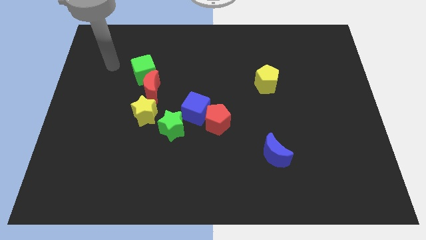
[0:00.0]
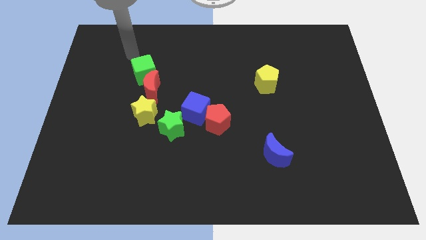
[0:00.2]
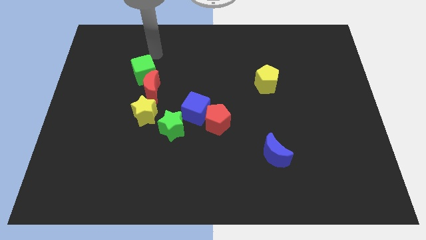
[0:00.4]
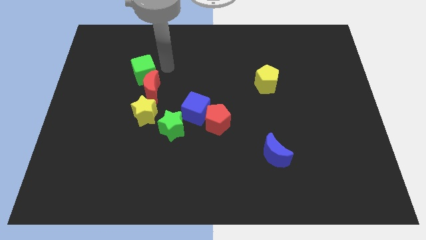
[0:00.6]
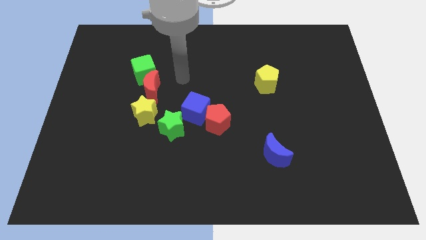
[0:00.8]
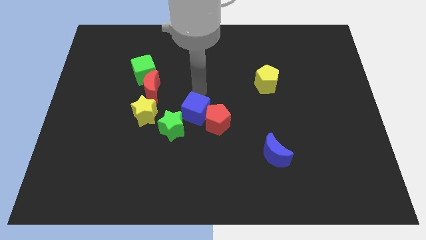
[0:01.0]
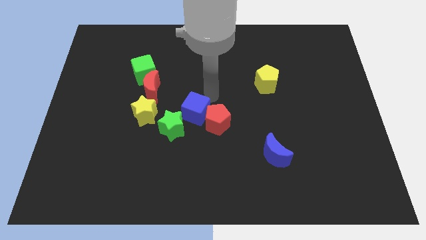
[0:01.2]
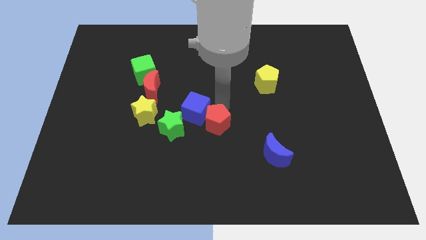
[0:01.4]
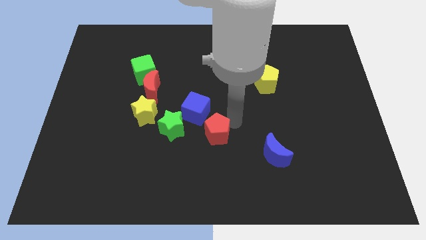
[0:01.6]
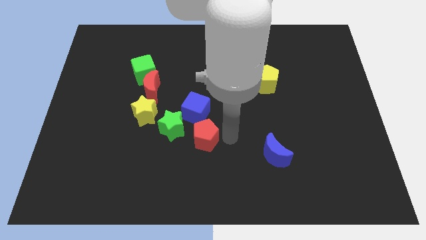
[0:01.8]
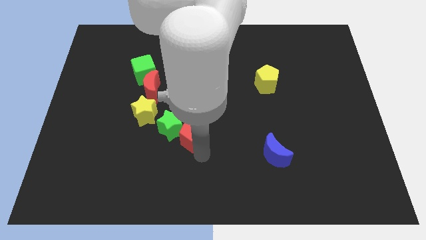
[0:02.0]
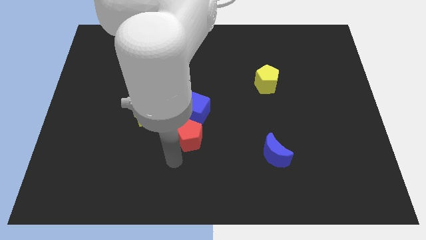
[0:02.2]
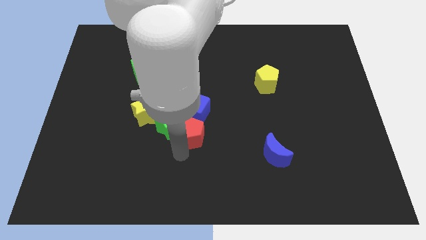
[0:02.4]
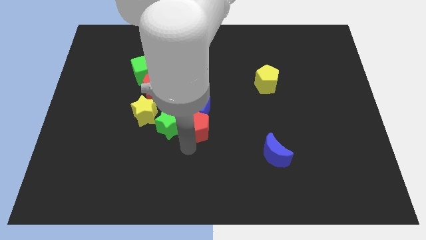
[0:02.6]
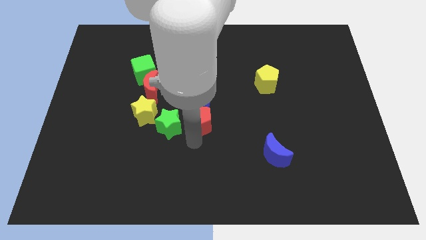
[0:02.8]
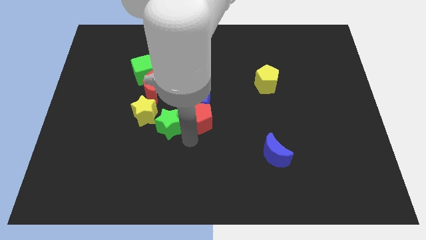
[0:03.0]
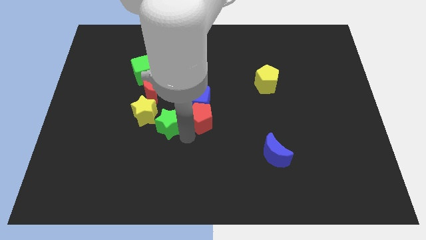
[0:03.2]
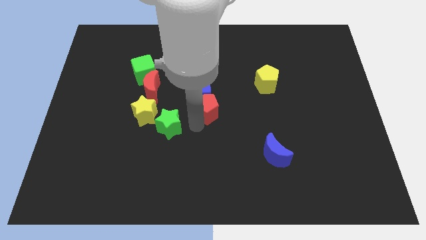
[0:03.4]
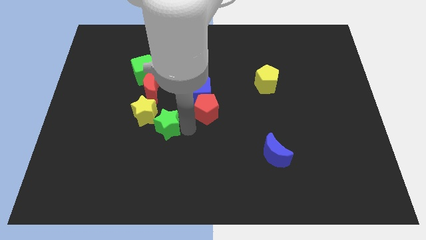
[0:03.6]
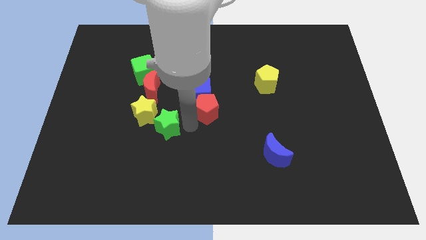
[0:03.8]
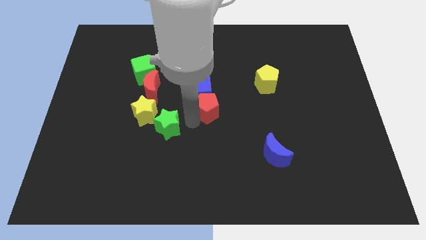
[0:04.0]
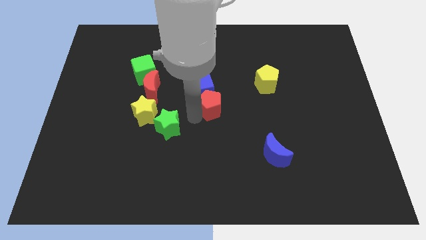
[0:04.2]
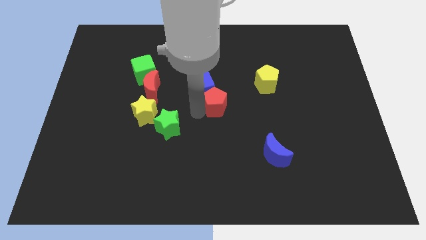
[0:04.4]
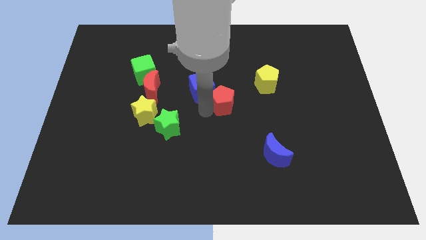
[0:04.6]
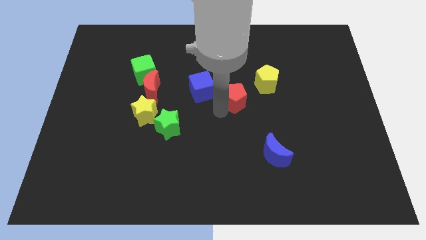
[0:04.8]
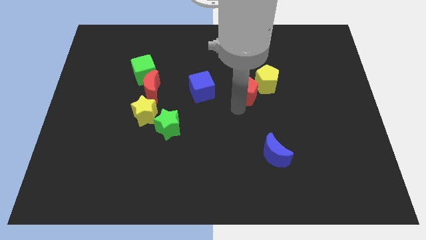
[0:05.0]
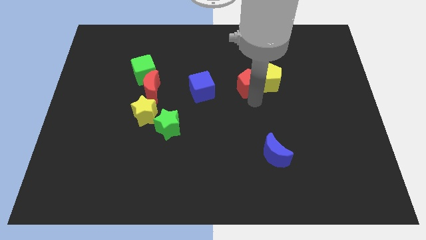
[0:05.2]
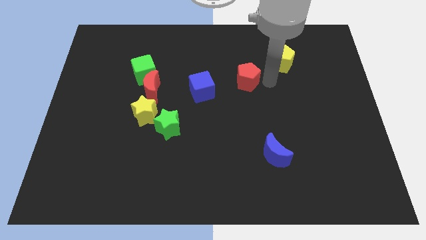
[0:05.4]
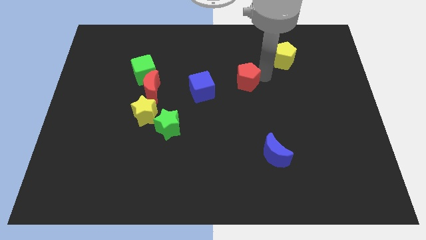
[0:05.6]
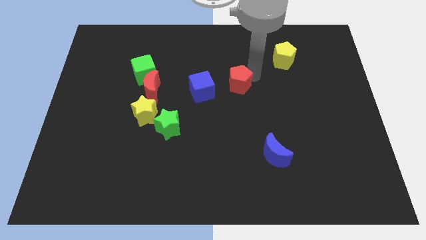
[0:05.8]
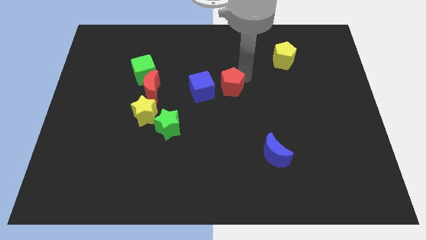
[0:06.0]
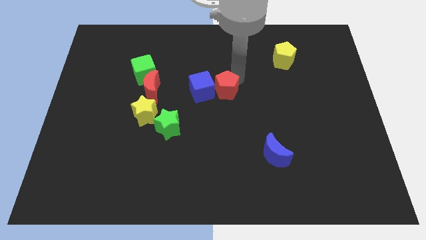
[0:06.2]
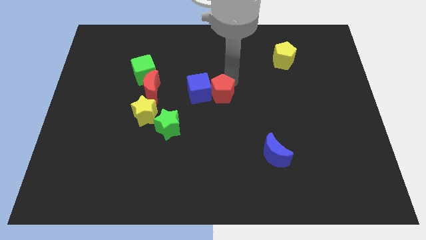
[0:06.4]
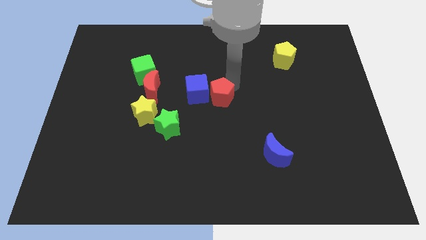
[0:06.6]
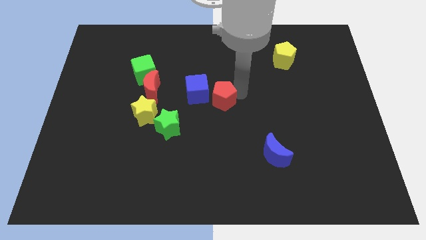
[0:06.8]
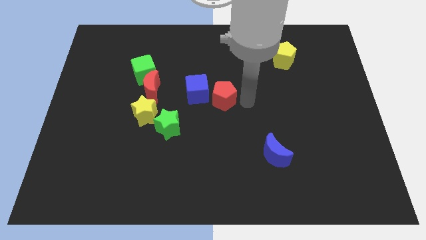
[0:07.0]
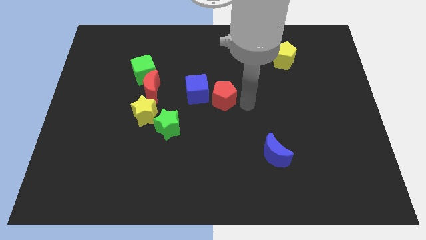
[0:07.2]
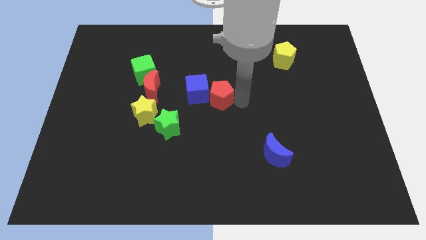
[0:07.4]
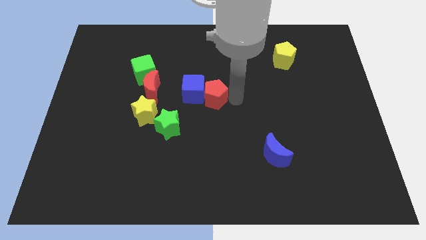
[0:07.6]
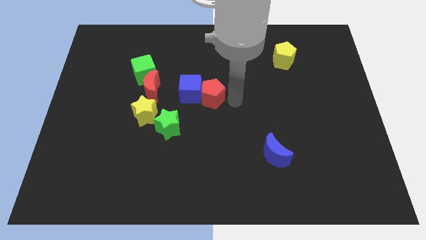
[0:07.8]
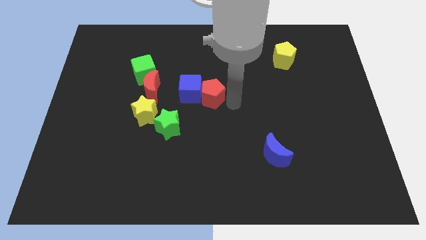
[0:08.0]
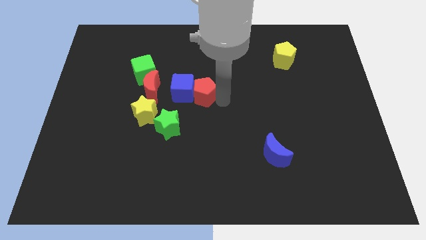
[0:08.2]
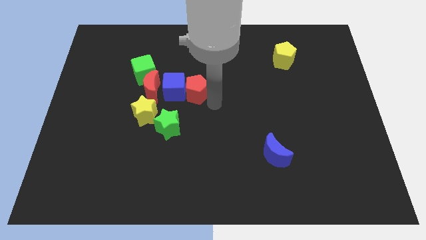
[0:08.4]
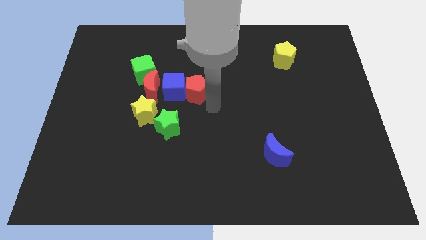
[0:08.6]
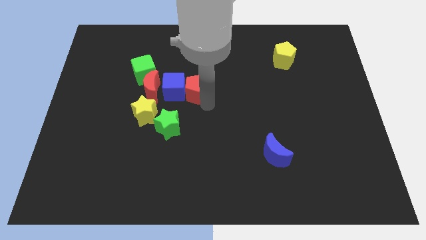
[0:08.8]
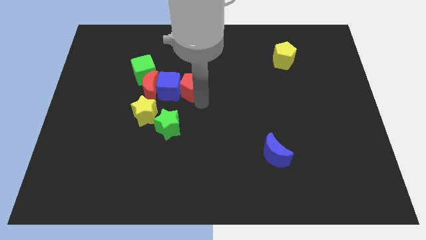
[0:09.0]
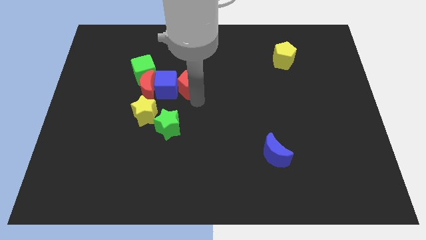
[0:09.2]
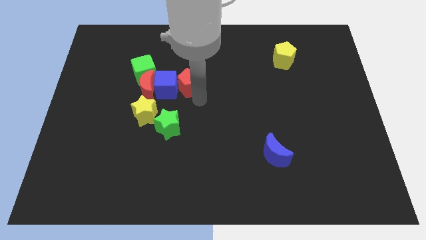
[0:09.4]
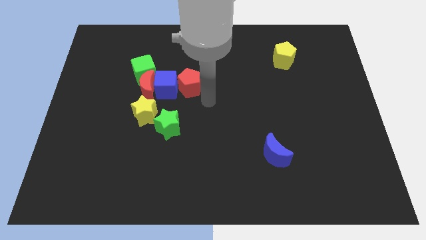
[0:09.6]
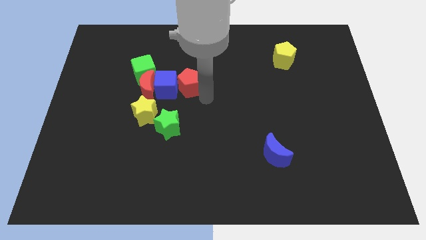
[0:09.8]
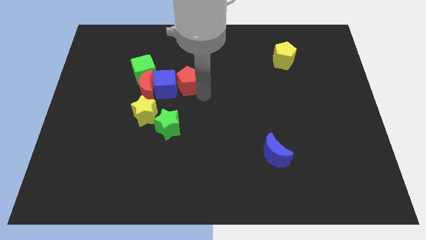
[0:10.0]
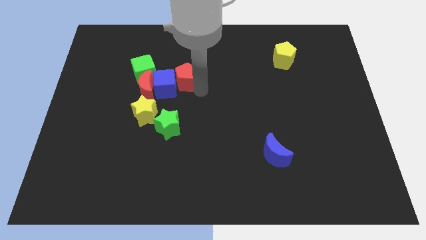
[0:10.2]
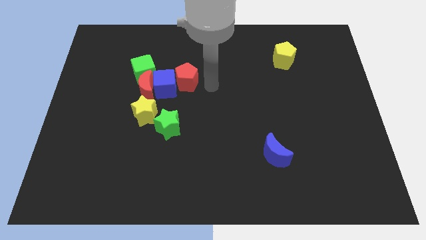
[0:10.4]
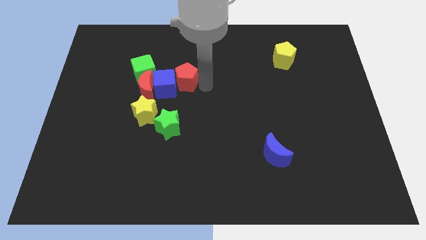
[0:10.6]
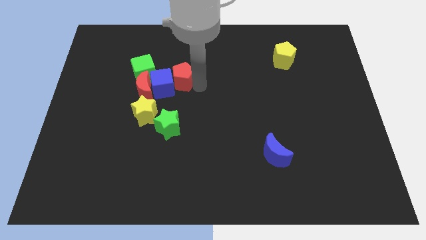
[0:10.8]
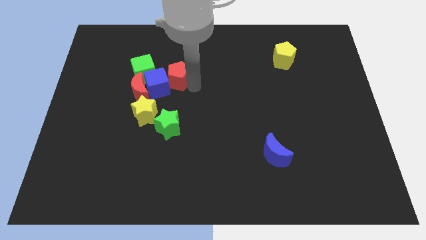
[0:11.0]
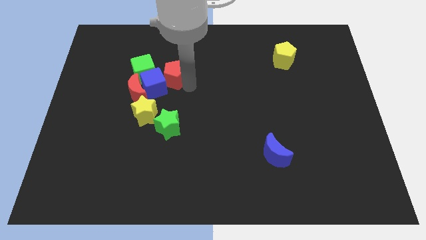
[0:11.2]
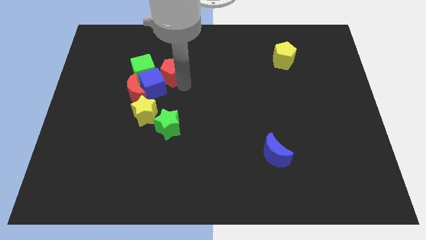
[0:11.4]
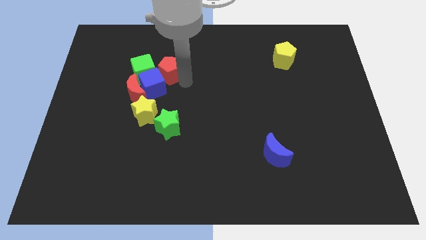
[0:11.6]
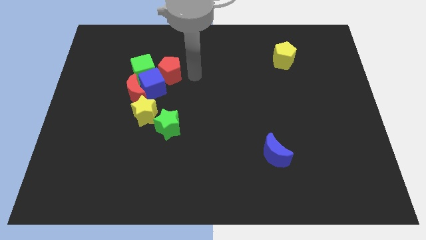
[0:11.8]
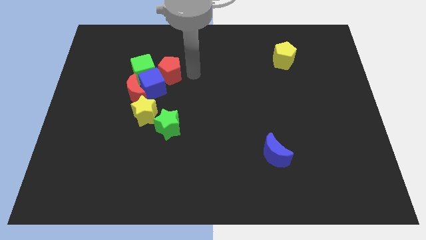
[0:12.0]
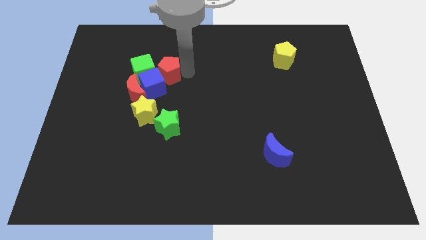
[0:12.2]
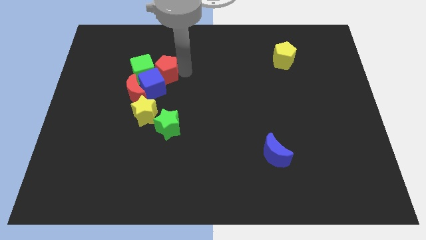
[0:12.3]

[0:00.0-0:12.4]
put the red pentagon close to the green cube

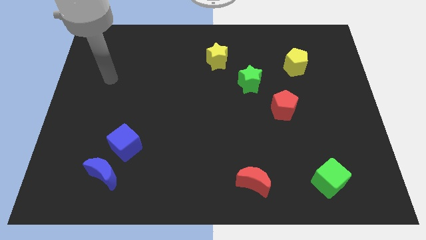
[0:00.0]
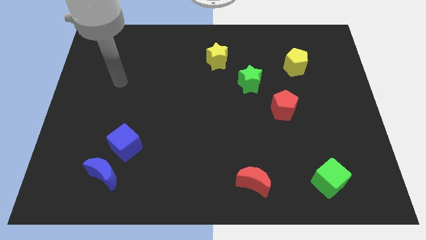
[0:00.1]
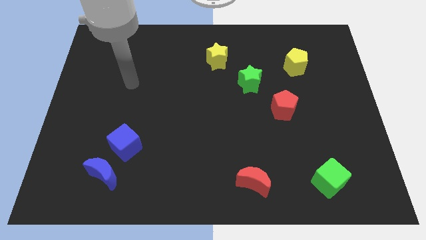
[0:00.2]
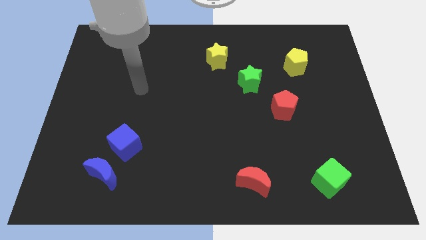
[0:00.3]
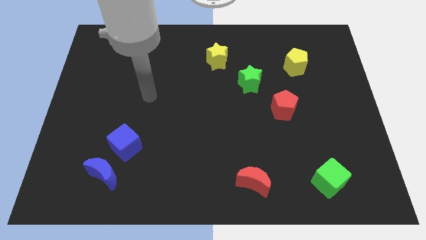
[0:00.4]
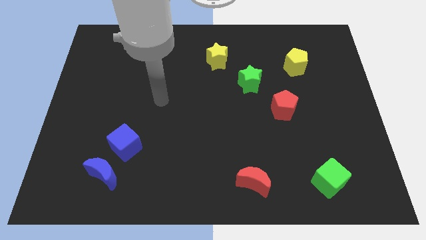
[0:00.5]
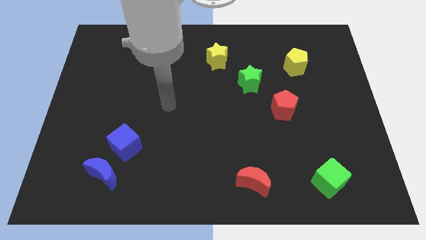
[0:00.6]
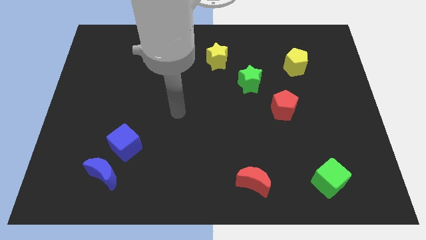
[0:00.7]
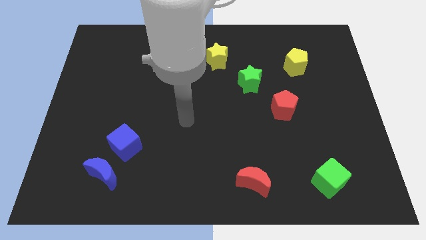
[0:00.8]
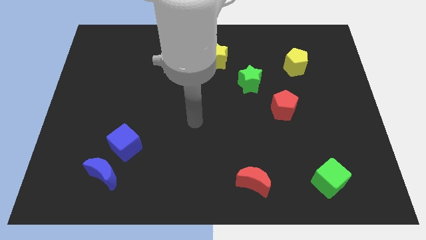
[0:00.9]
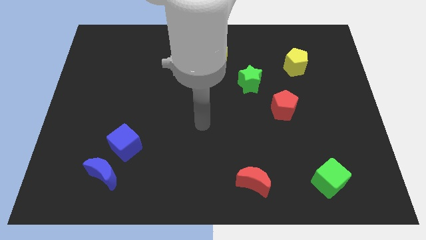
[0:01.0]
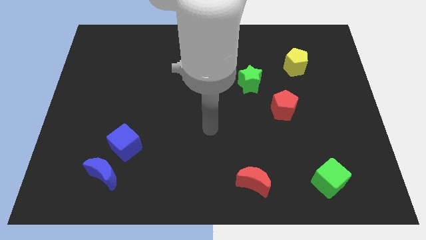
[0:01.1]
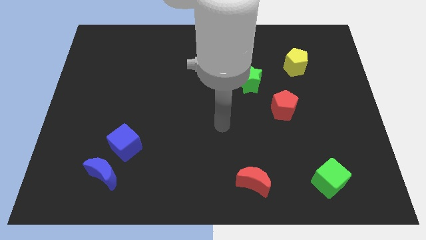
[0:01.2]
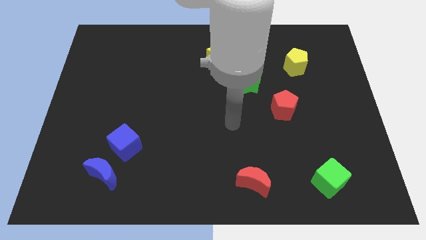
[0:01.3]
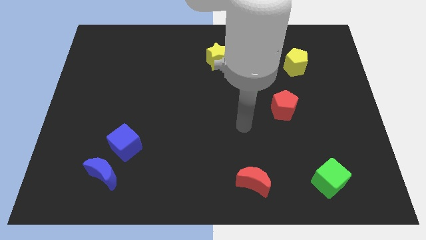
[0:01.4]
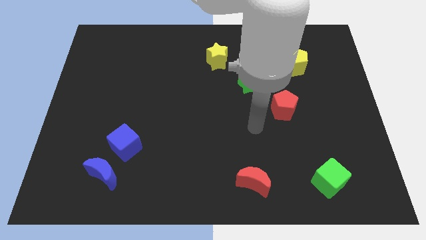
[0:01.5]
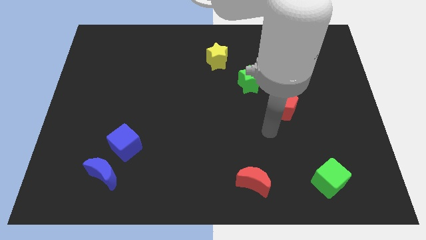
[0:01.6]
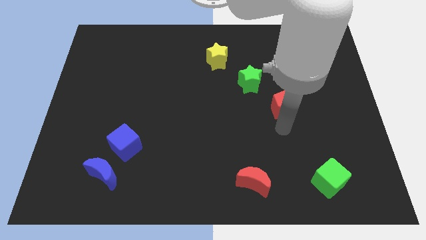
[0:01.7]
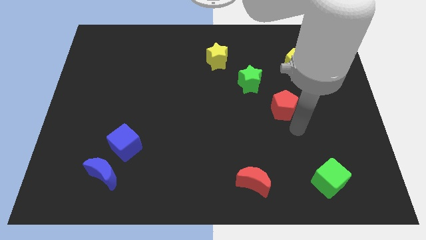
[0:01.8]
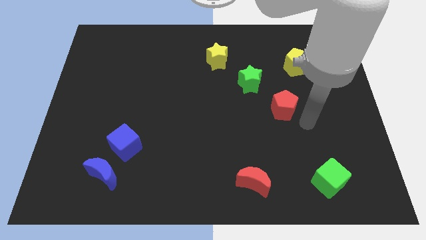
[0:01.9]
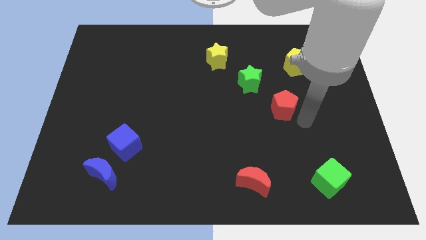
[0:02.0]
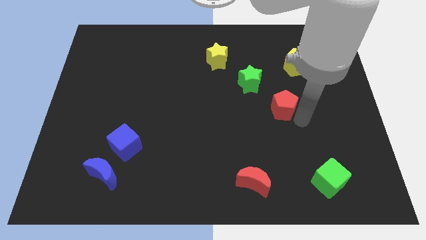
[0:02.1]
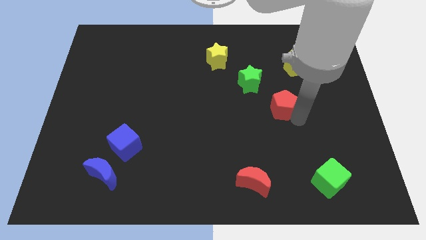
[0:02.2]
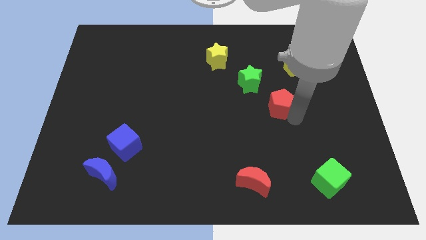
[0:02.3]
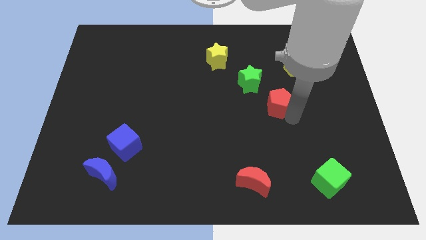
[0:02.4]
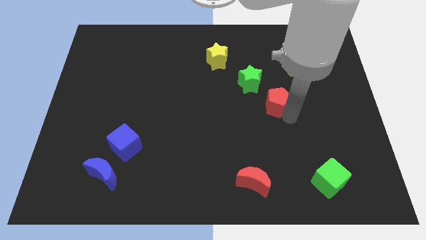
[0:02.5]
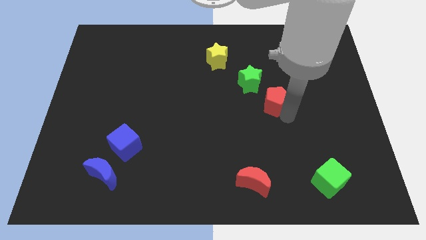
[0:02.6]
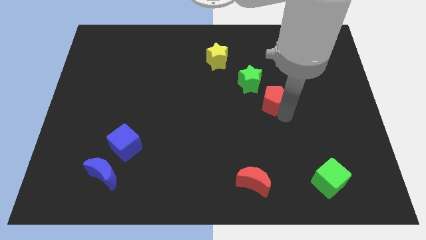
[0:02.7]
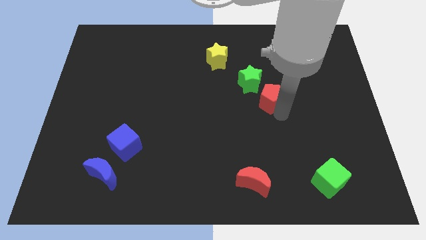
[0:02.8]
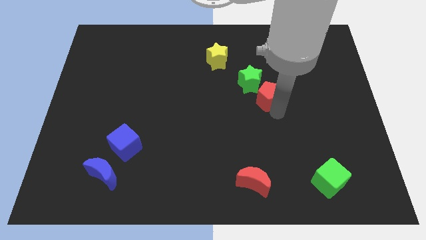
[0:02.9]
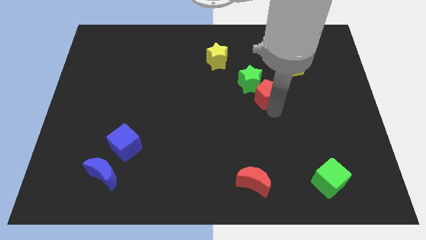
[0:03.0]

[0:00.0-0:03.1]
move the red pentagon close to the green star
